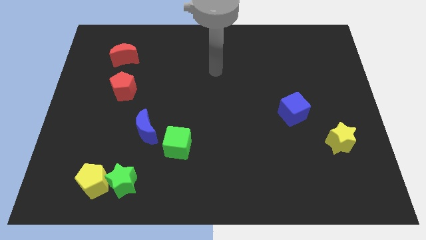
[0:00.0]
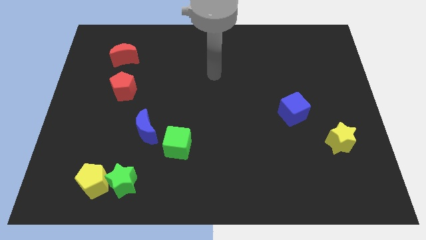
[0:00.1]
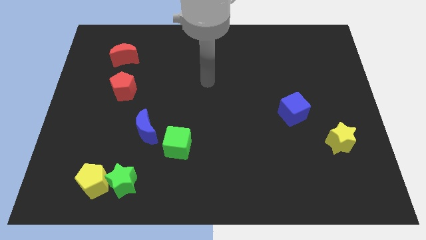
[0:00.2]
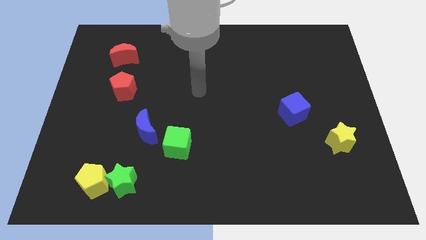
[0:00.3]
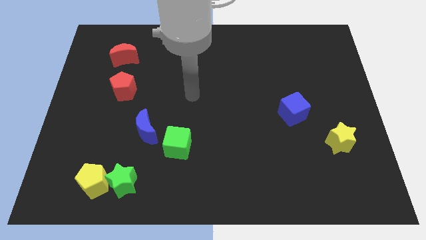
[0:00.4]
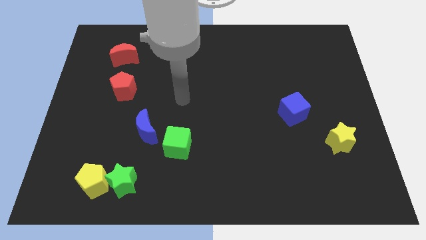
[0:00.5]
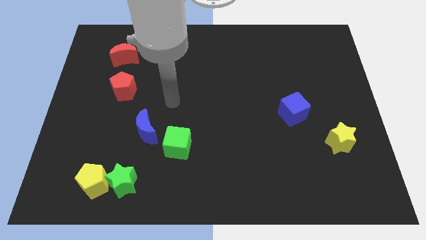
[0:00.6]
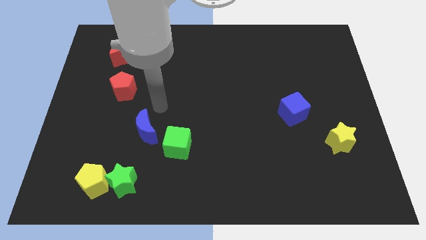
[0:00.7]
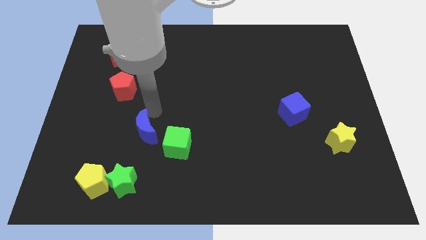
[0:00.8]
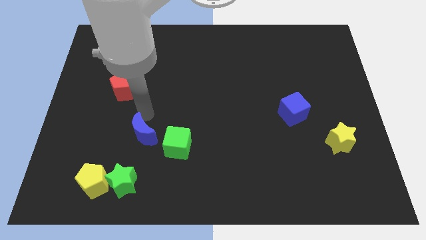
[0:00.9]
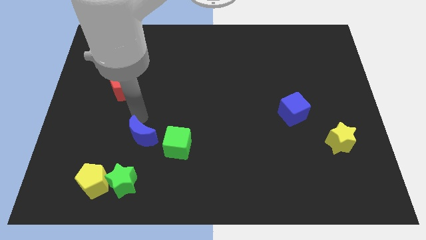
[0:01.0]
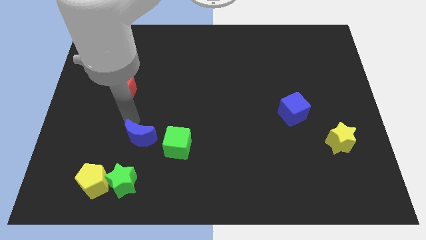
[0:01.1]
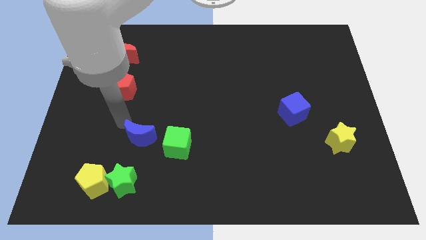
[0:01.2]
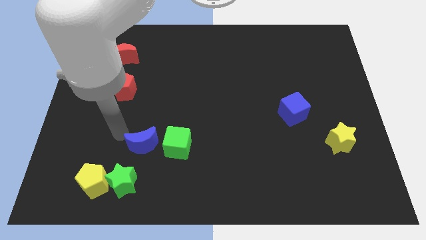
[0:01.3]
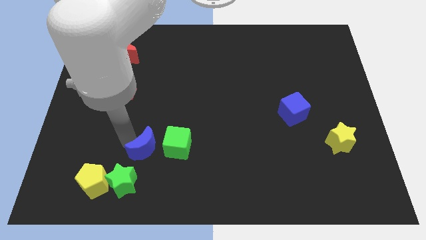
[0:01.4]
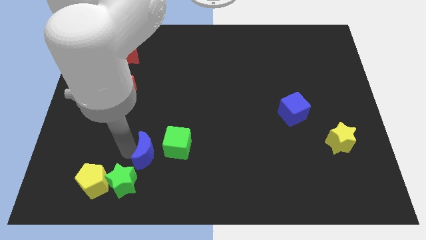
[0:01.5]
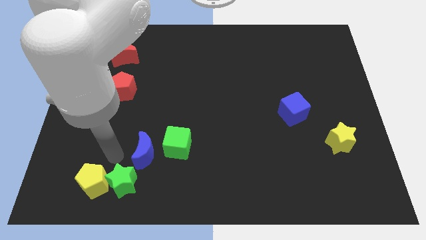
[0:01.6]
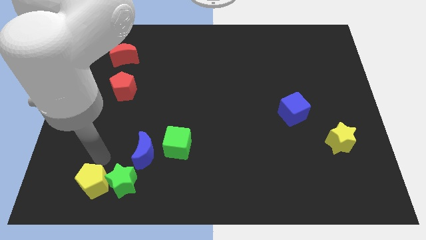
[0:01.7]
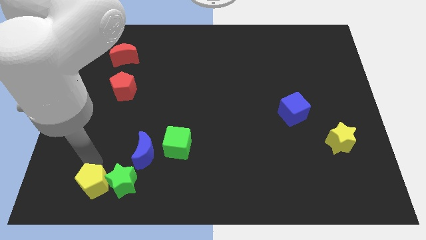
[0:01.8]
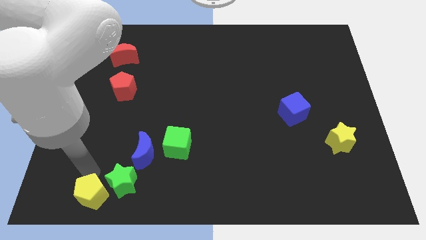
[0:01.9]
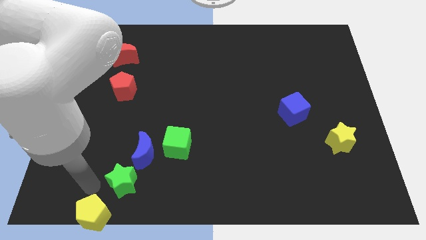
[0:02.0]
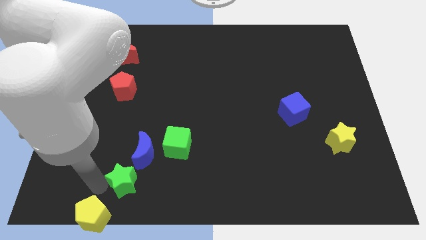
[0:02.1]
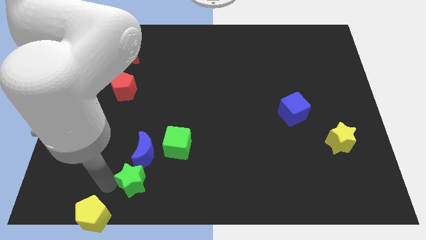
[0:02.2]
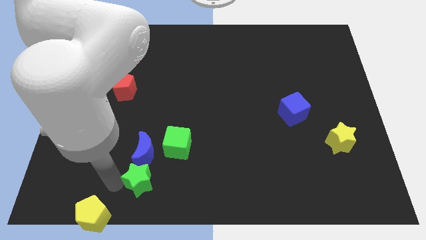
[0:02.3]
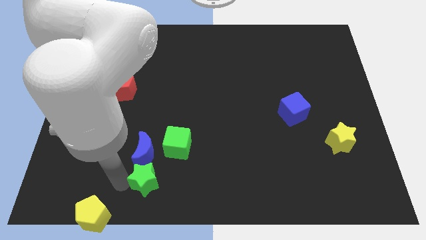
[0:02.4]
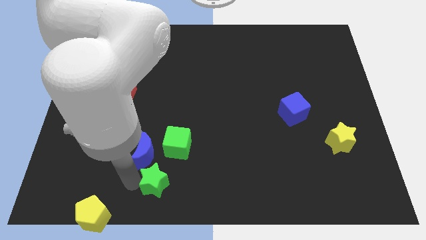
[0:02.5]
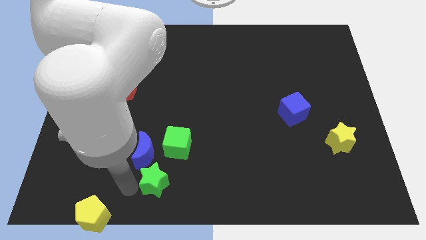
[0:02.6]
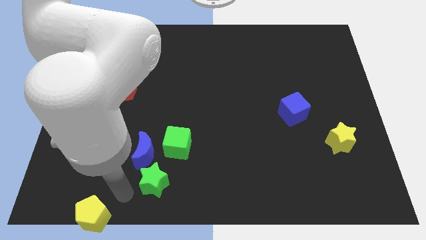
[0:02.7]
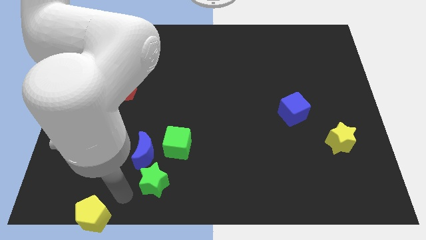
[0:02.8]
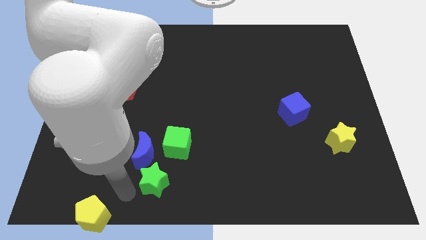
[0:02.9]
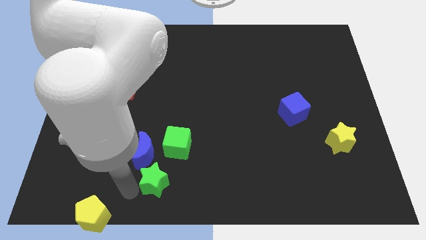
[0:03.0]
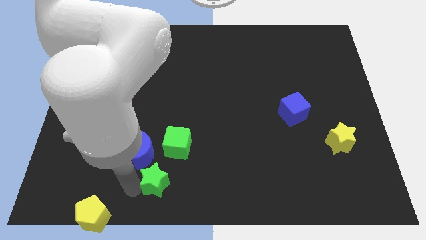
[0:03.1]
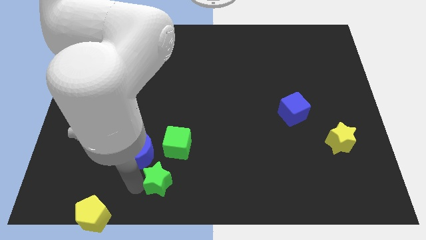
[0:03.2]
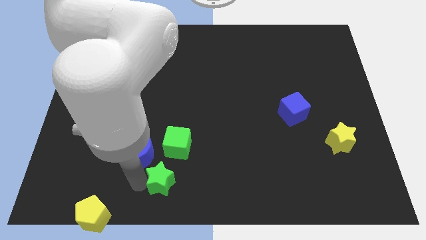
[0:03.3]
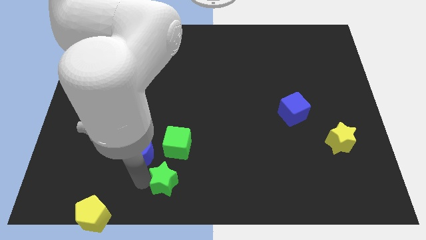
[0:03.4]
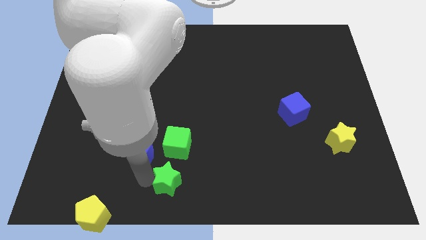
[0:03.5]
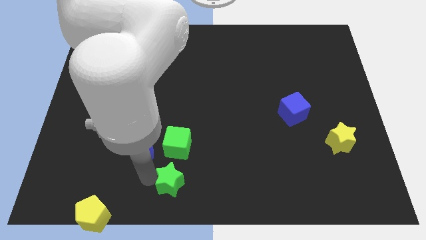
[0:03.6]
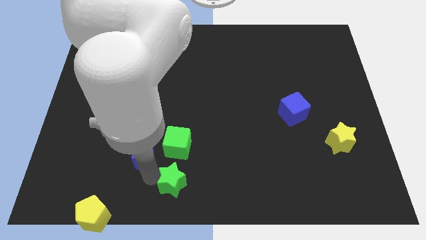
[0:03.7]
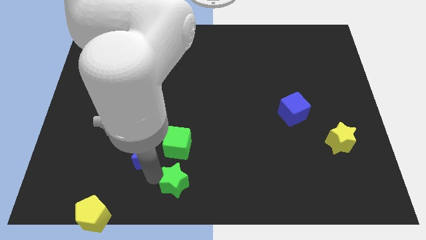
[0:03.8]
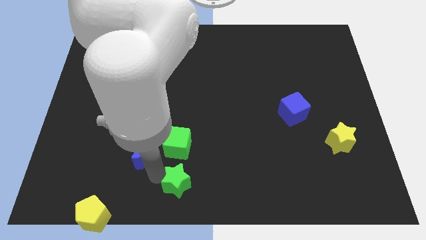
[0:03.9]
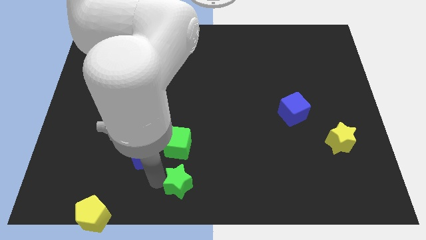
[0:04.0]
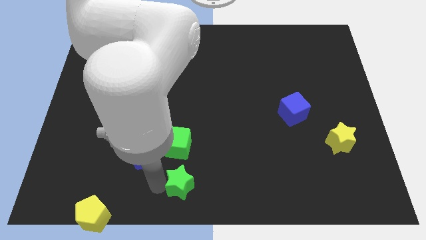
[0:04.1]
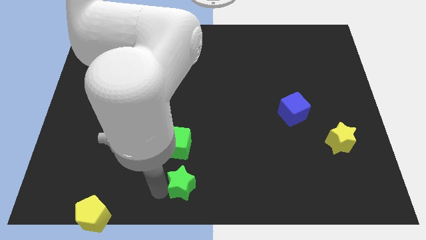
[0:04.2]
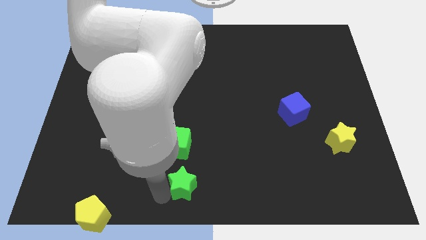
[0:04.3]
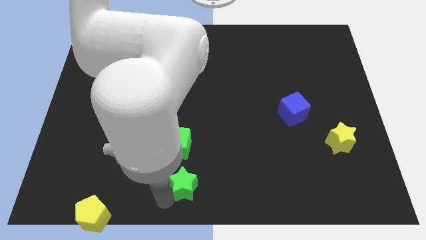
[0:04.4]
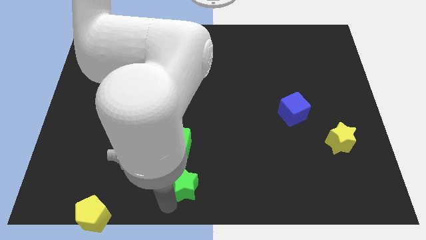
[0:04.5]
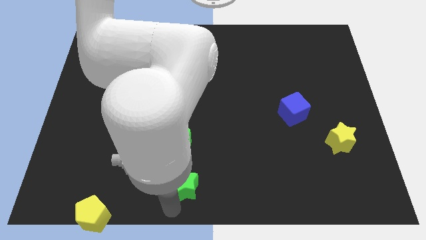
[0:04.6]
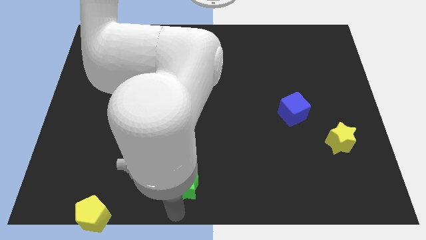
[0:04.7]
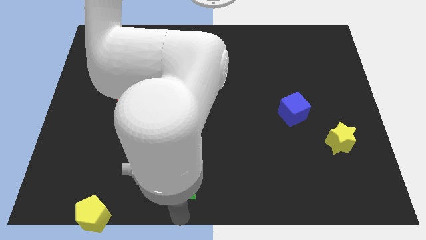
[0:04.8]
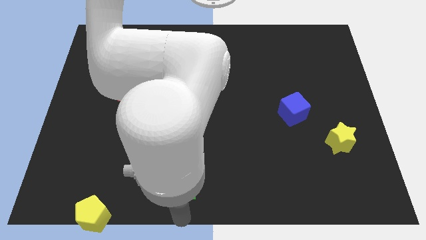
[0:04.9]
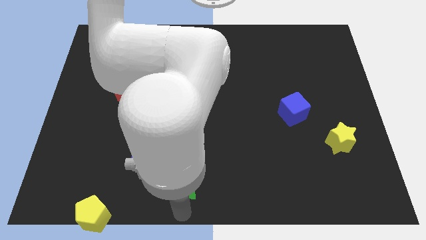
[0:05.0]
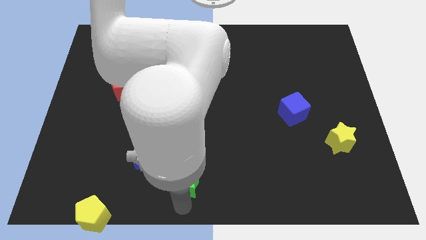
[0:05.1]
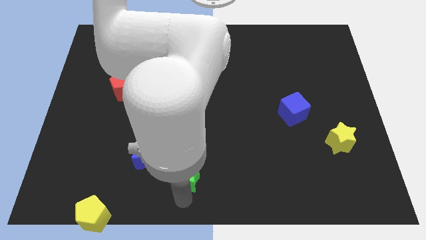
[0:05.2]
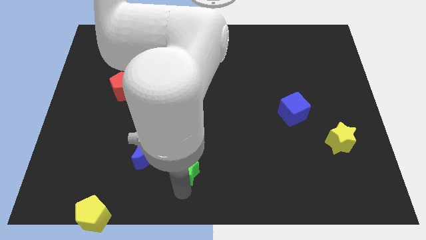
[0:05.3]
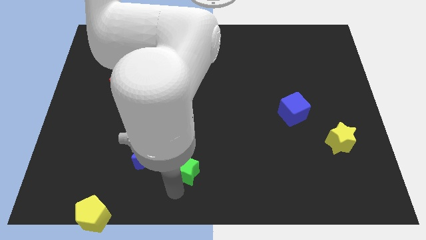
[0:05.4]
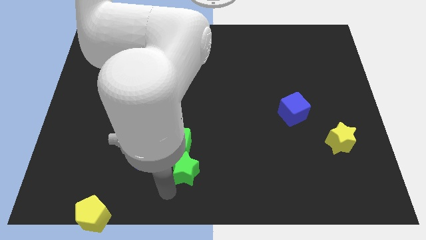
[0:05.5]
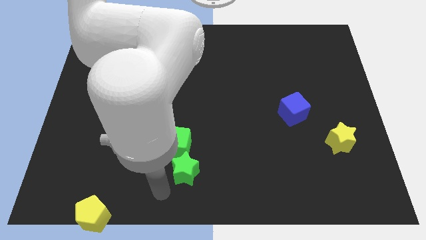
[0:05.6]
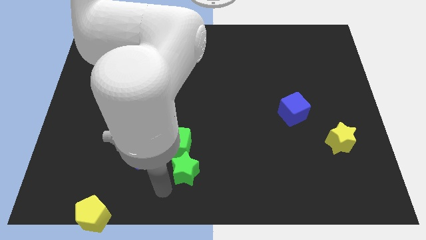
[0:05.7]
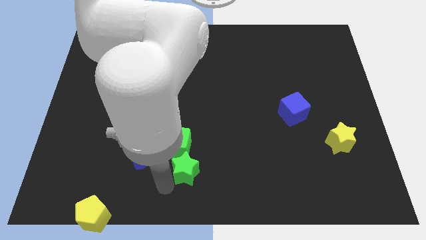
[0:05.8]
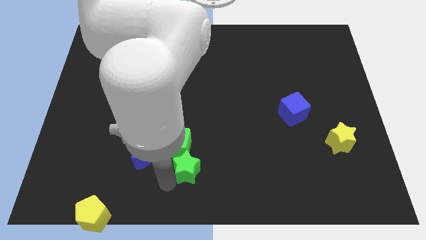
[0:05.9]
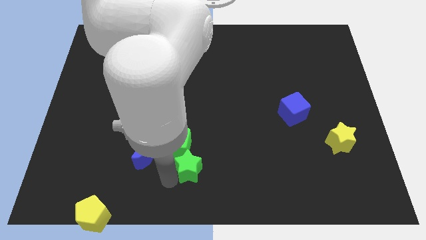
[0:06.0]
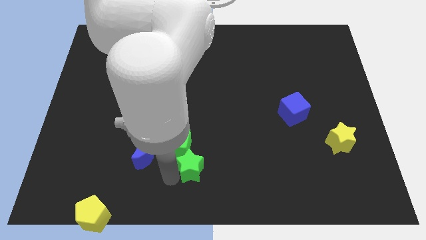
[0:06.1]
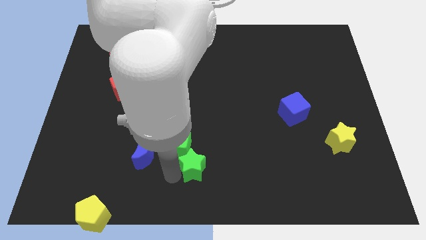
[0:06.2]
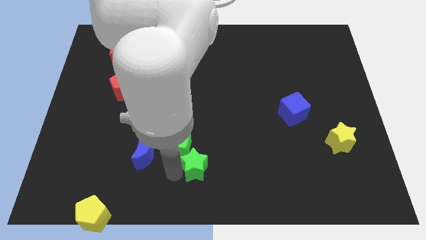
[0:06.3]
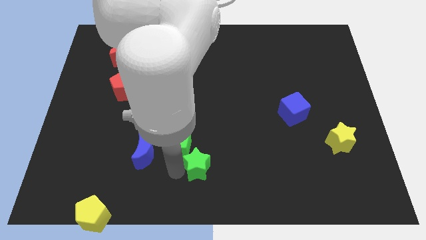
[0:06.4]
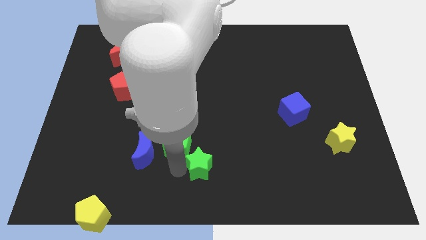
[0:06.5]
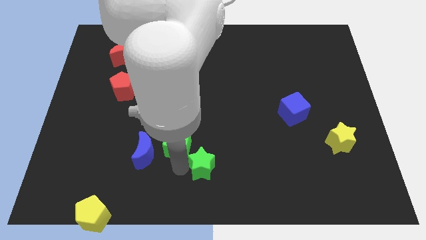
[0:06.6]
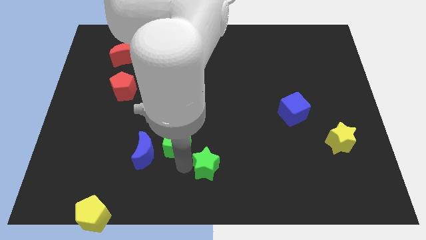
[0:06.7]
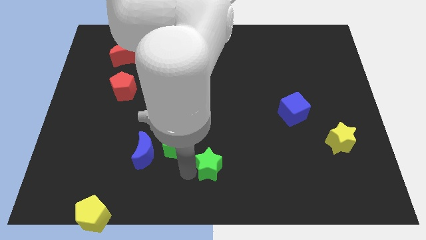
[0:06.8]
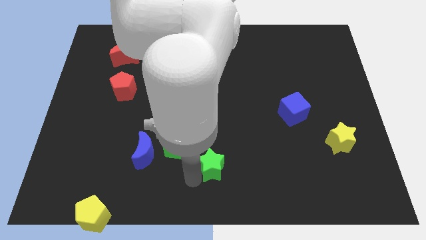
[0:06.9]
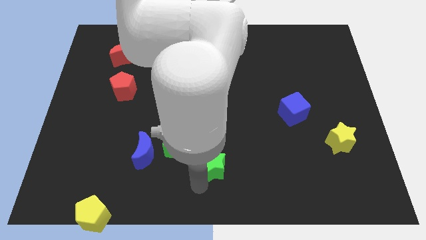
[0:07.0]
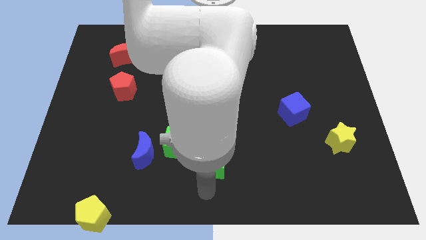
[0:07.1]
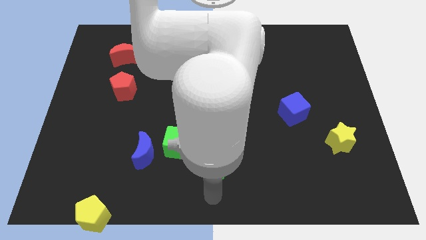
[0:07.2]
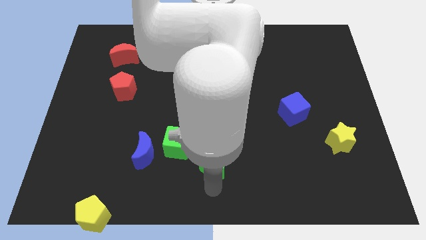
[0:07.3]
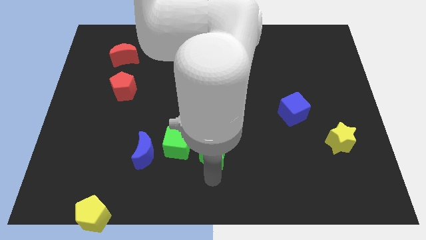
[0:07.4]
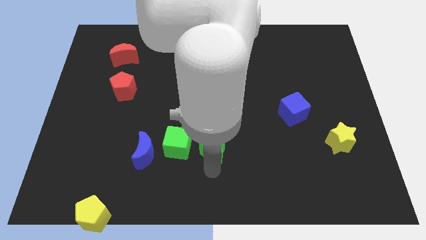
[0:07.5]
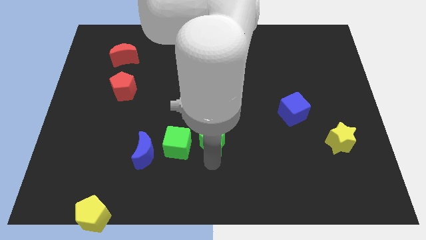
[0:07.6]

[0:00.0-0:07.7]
put the green star to the middle of the board
